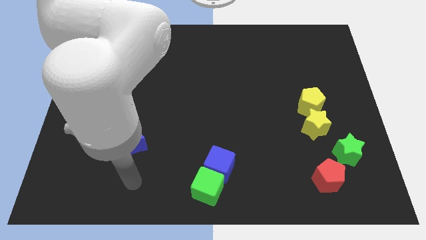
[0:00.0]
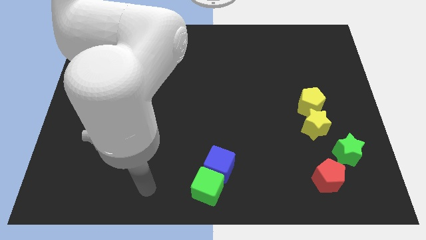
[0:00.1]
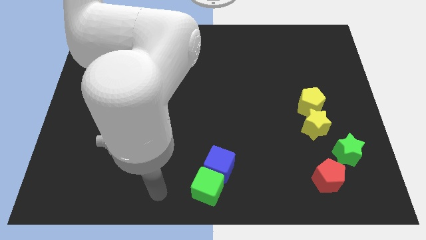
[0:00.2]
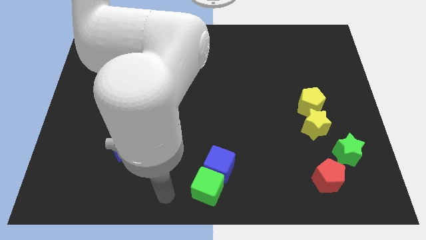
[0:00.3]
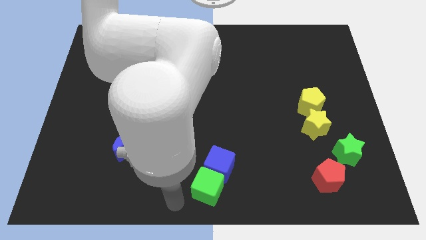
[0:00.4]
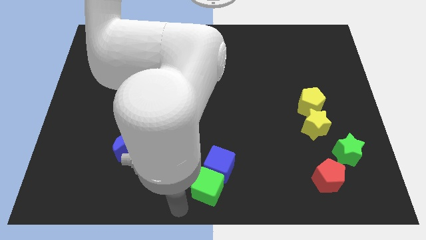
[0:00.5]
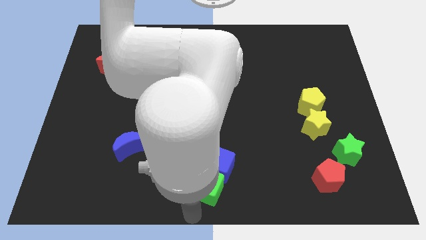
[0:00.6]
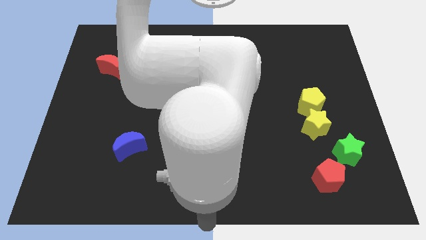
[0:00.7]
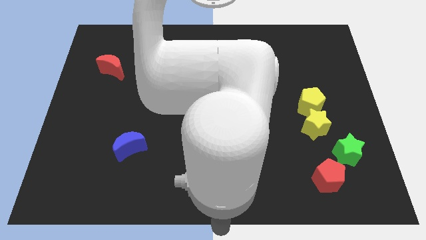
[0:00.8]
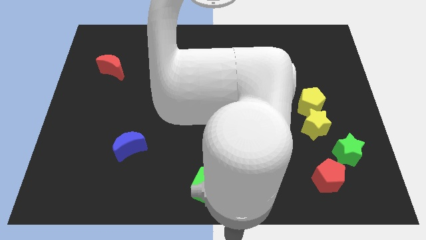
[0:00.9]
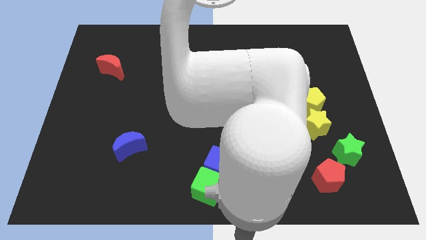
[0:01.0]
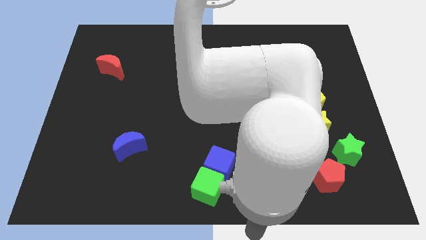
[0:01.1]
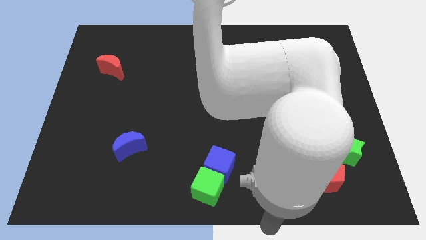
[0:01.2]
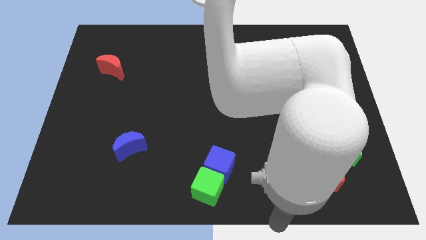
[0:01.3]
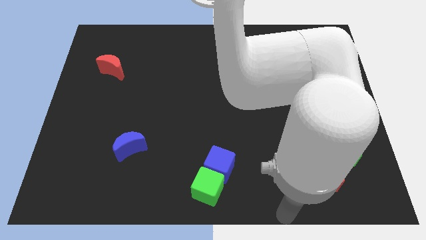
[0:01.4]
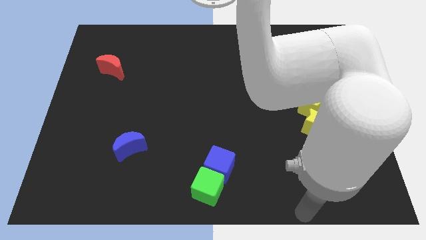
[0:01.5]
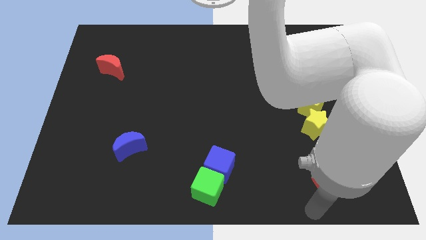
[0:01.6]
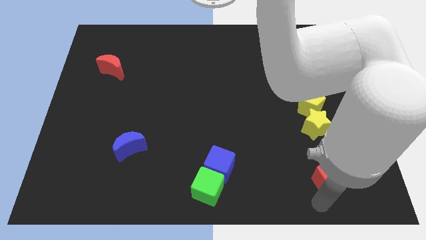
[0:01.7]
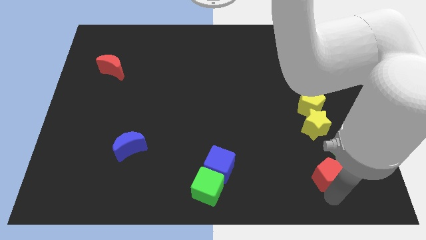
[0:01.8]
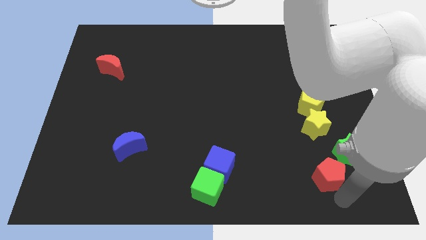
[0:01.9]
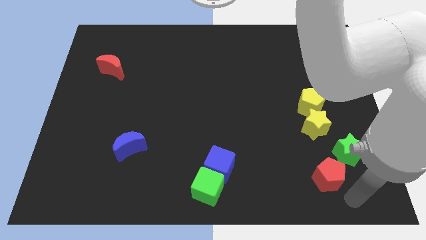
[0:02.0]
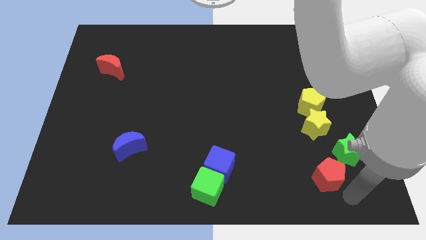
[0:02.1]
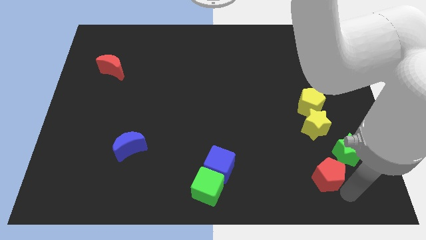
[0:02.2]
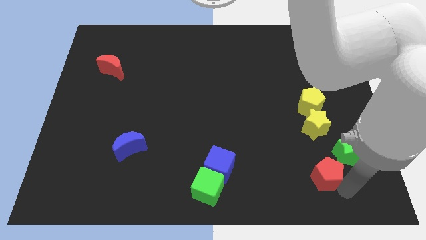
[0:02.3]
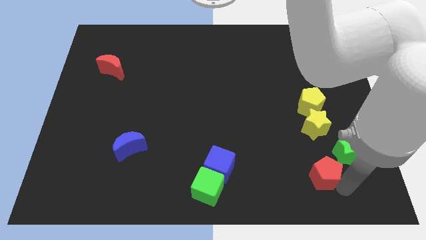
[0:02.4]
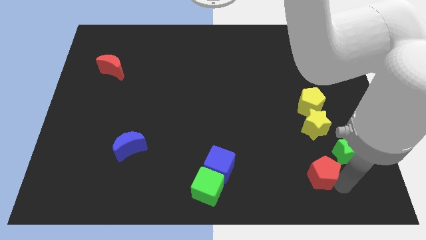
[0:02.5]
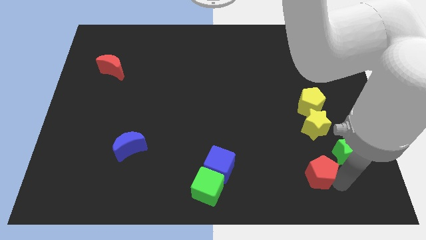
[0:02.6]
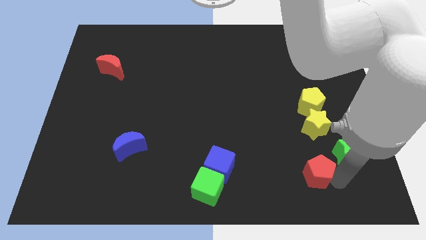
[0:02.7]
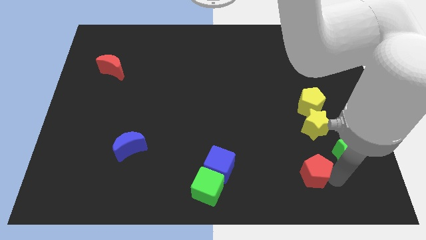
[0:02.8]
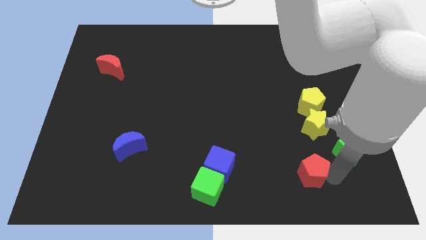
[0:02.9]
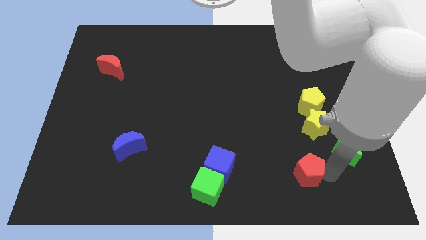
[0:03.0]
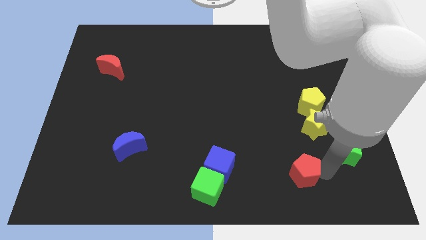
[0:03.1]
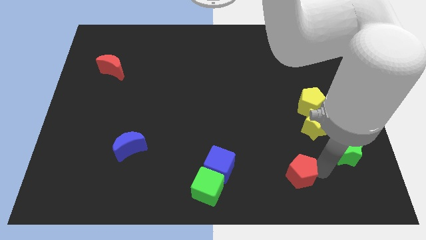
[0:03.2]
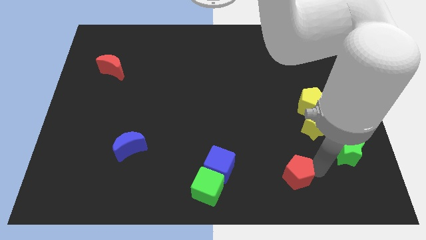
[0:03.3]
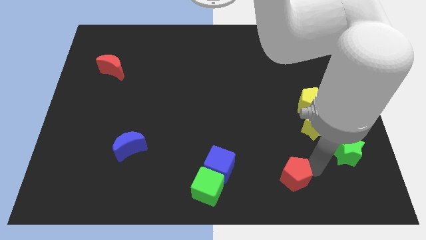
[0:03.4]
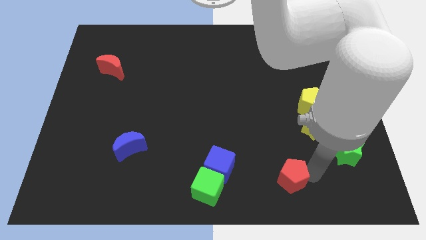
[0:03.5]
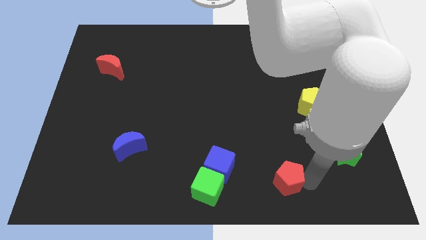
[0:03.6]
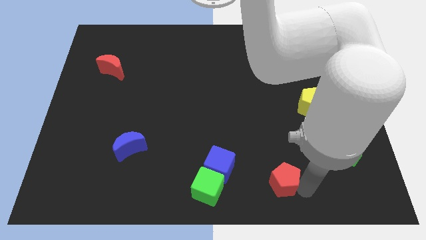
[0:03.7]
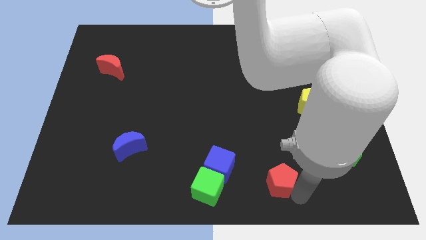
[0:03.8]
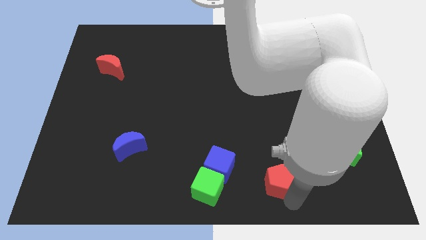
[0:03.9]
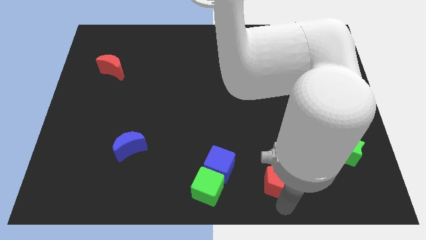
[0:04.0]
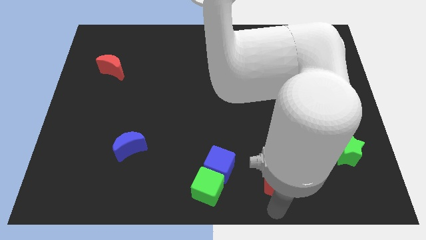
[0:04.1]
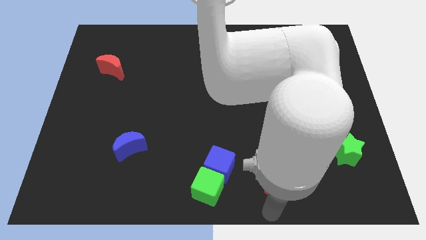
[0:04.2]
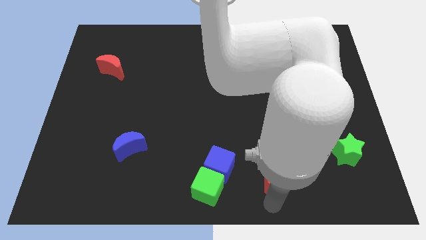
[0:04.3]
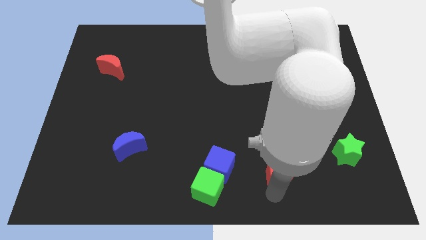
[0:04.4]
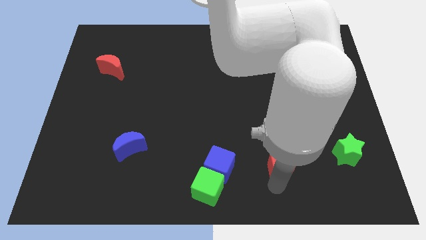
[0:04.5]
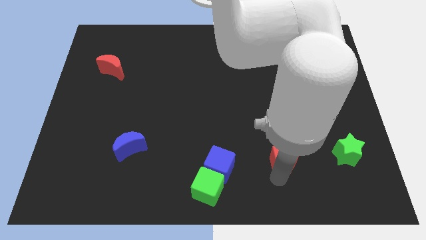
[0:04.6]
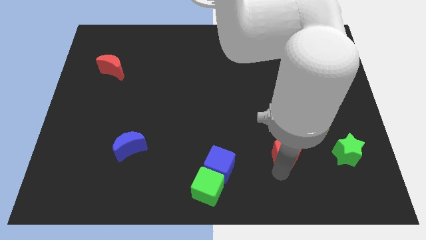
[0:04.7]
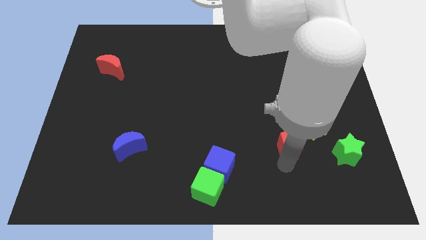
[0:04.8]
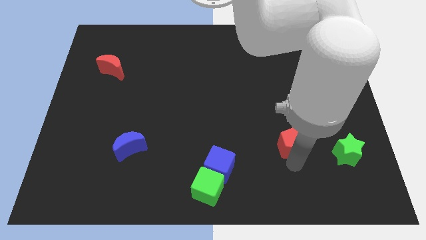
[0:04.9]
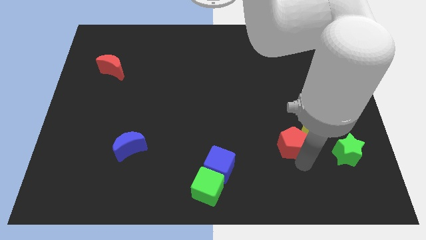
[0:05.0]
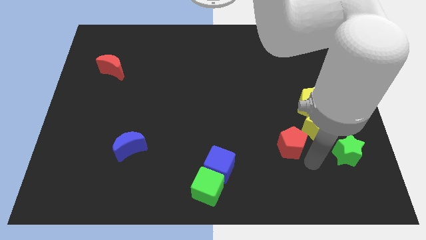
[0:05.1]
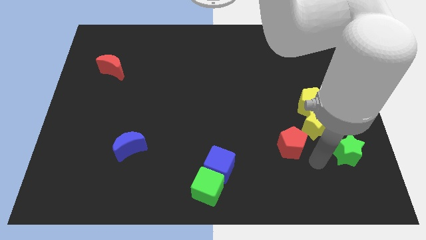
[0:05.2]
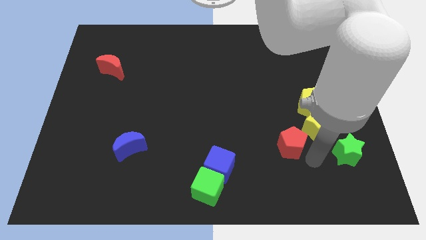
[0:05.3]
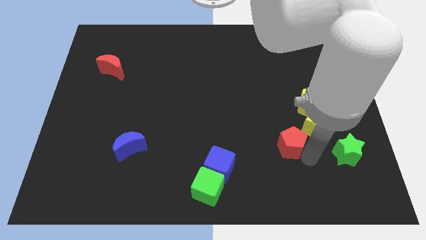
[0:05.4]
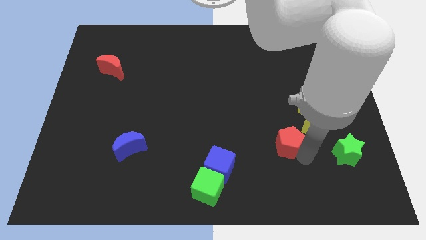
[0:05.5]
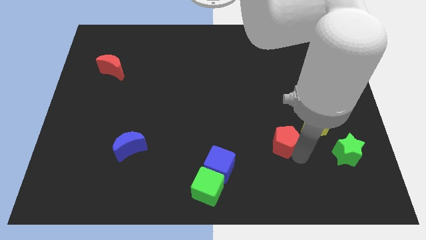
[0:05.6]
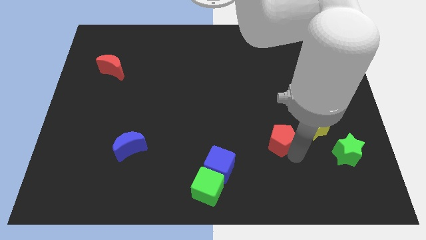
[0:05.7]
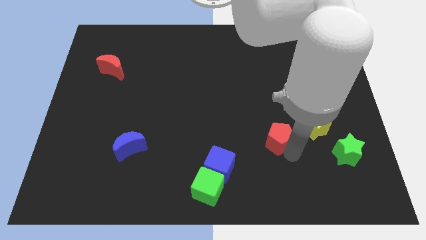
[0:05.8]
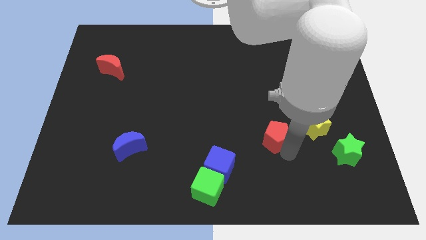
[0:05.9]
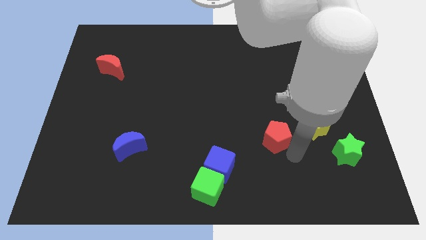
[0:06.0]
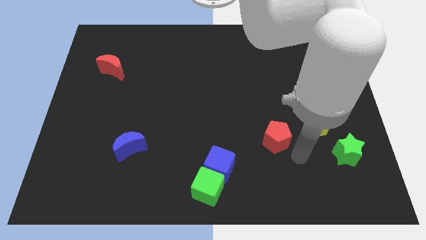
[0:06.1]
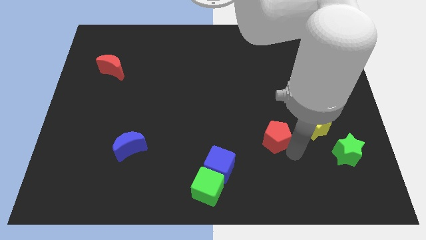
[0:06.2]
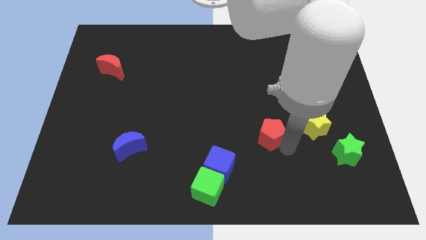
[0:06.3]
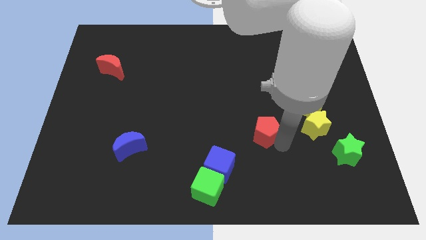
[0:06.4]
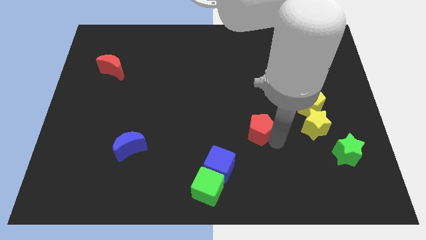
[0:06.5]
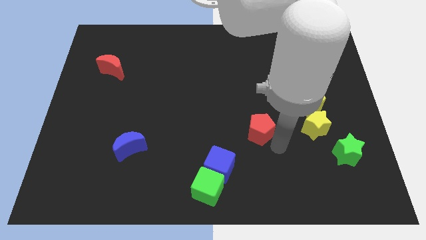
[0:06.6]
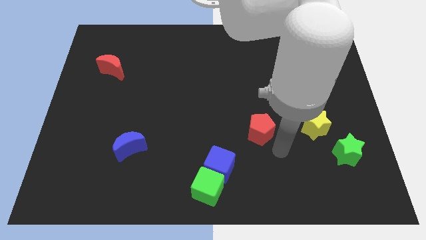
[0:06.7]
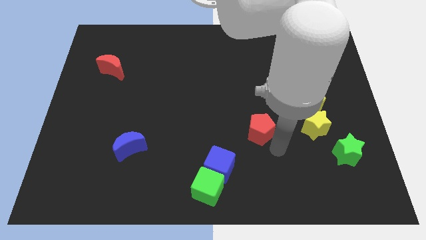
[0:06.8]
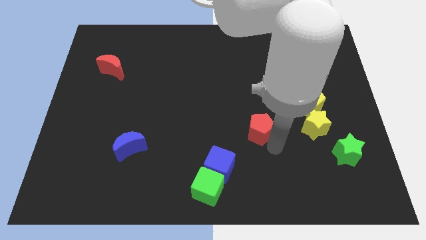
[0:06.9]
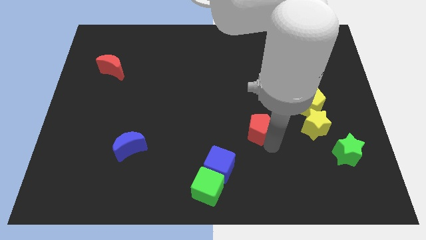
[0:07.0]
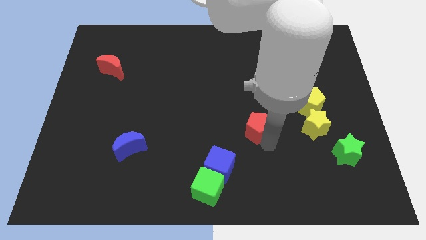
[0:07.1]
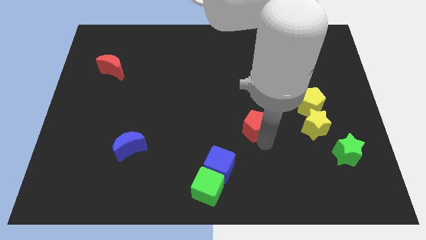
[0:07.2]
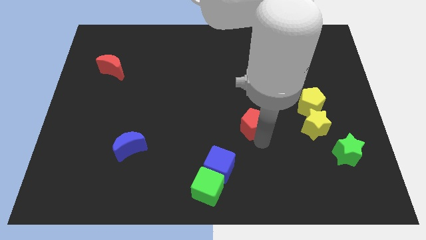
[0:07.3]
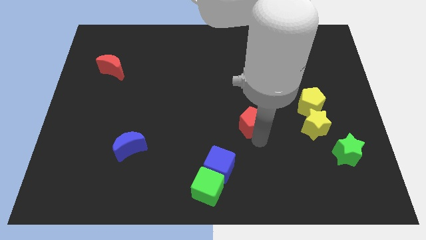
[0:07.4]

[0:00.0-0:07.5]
push the red pentagon upwards and left diagonally
